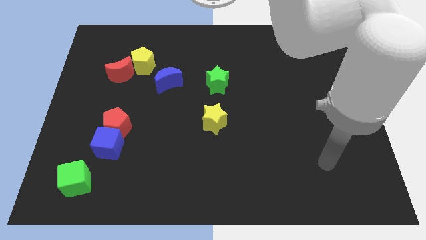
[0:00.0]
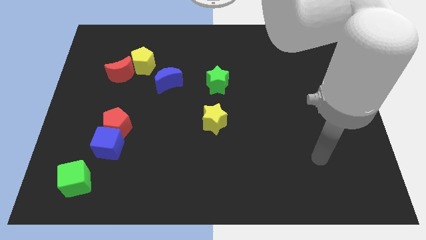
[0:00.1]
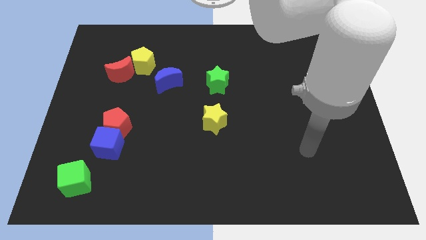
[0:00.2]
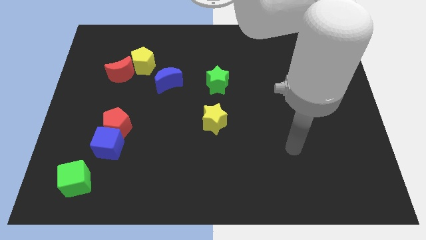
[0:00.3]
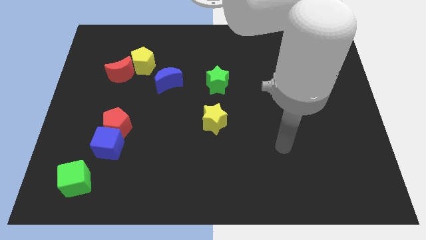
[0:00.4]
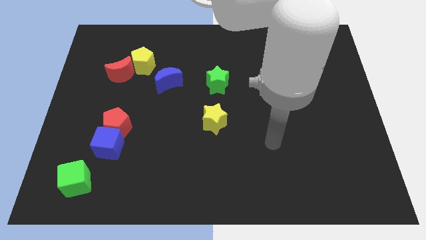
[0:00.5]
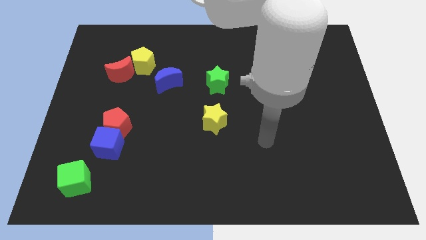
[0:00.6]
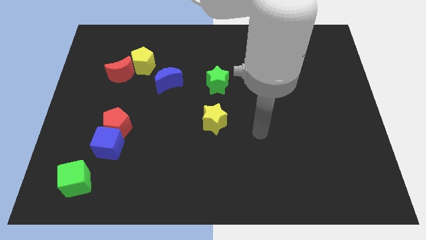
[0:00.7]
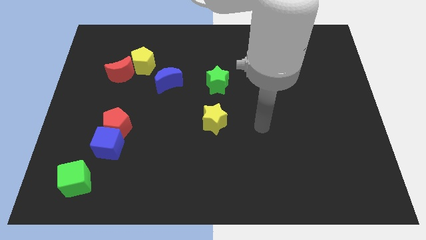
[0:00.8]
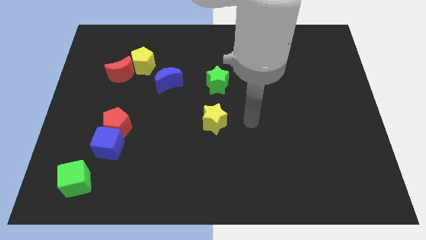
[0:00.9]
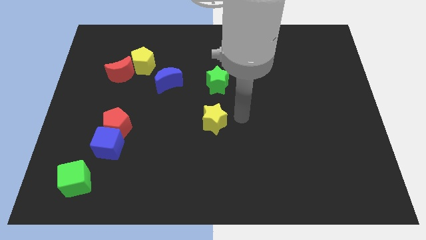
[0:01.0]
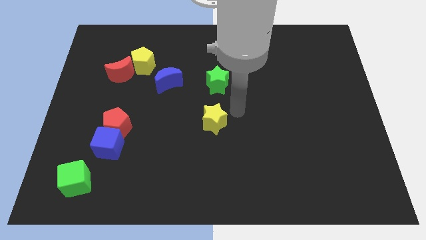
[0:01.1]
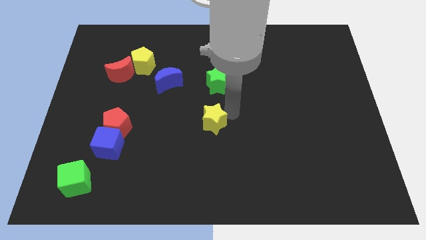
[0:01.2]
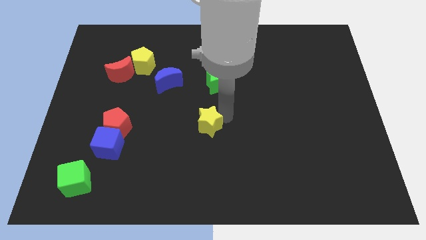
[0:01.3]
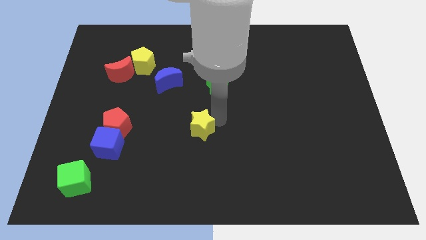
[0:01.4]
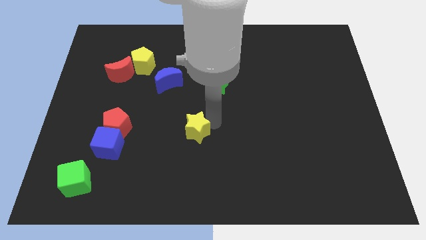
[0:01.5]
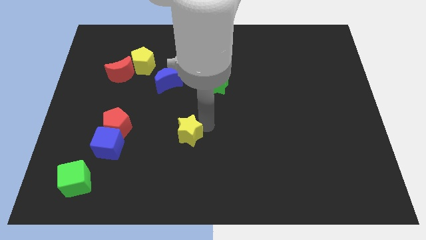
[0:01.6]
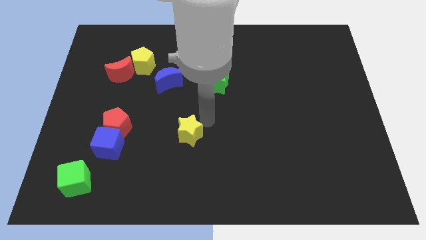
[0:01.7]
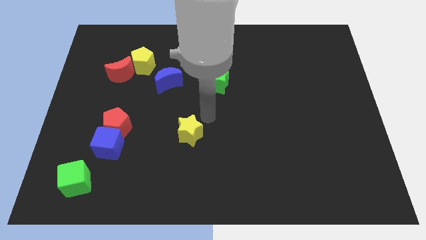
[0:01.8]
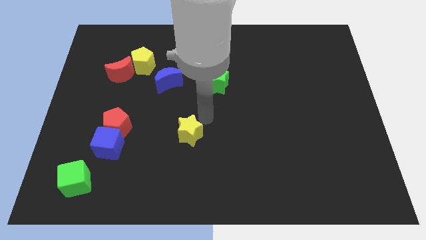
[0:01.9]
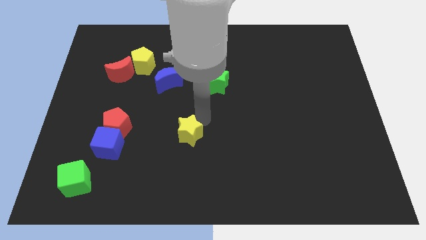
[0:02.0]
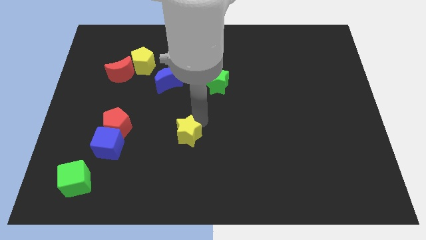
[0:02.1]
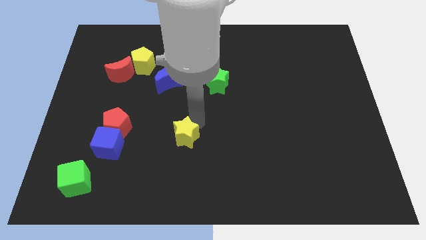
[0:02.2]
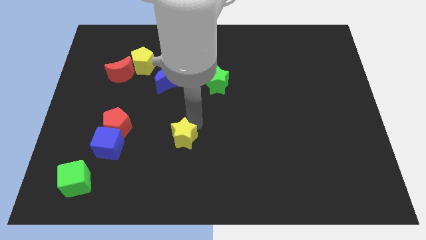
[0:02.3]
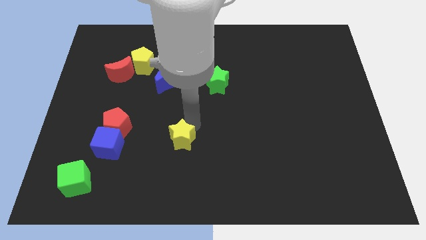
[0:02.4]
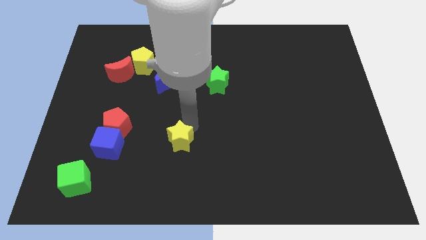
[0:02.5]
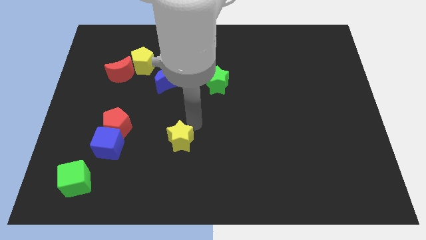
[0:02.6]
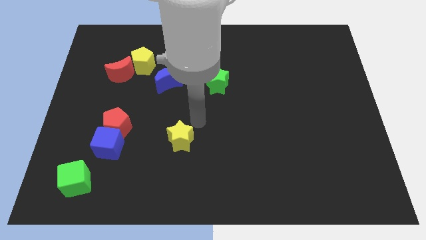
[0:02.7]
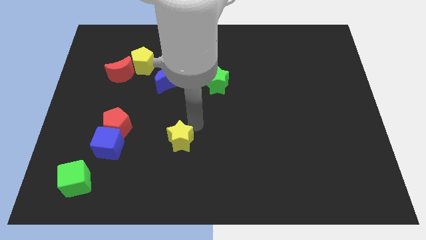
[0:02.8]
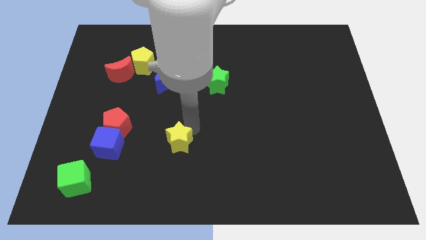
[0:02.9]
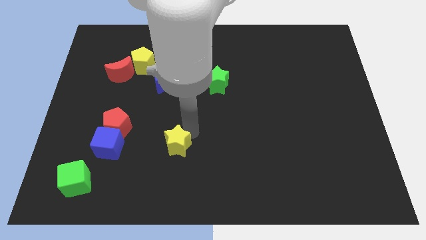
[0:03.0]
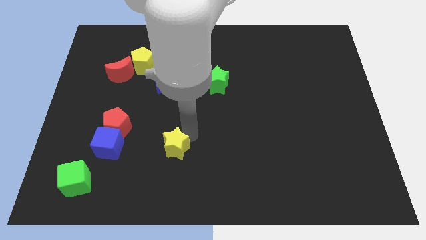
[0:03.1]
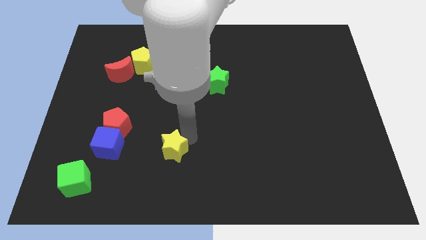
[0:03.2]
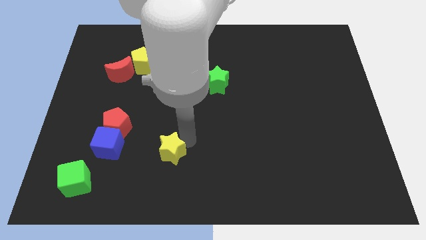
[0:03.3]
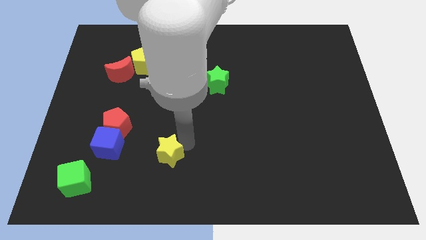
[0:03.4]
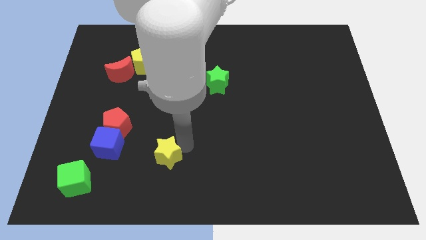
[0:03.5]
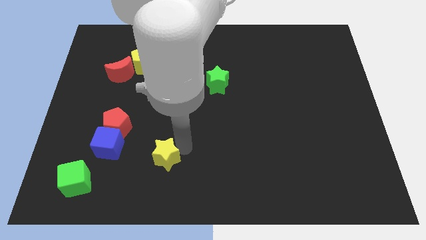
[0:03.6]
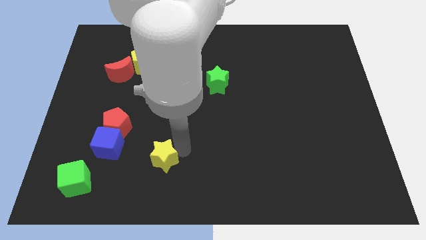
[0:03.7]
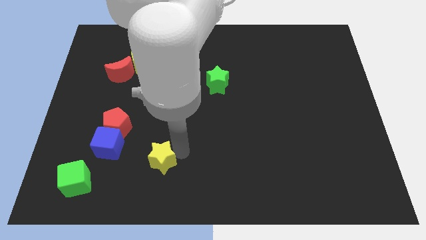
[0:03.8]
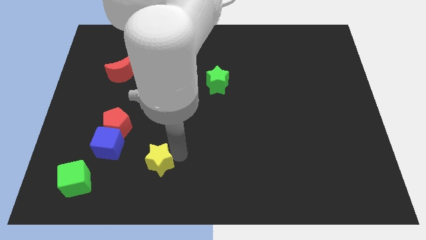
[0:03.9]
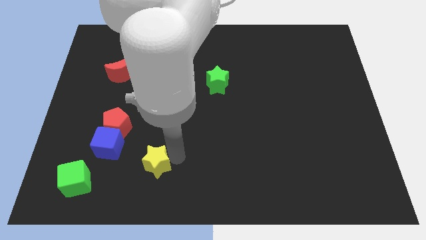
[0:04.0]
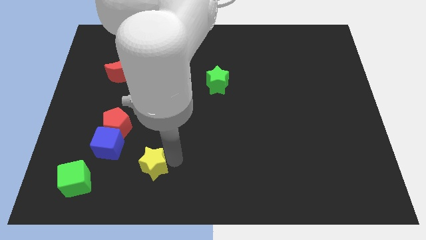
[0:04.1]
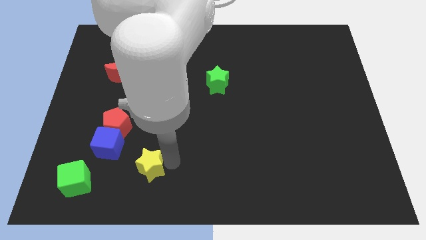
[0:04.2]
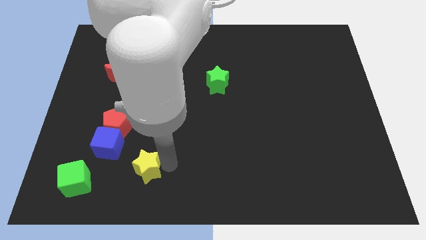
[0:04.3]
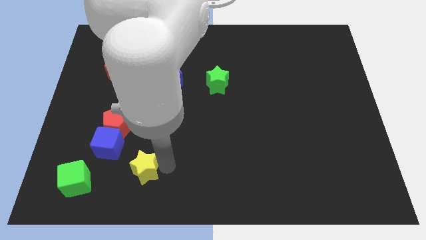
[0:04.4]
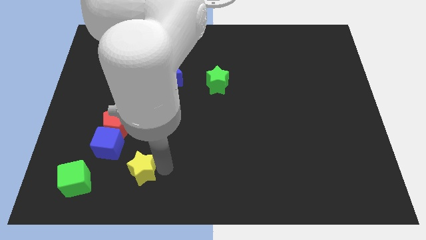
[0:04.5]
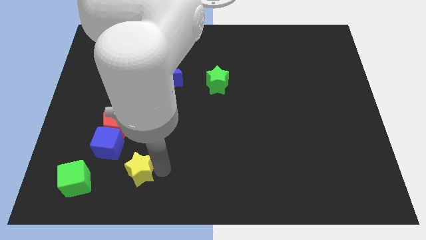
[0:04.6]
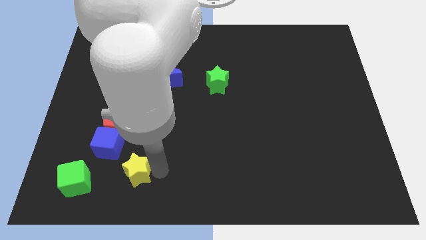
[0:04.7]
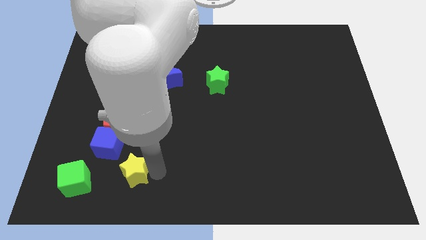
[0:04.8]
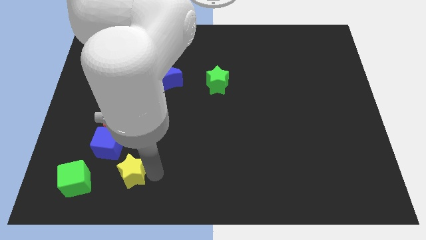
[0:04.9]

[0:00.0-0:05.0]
push the yellow star below the red pentagon

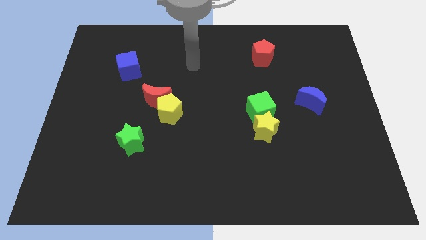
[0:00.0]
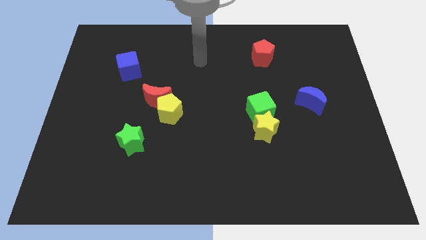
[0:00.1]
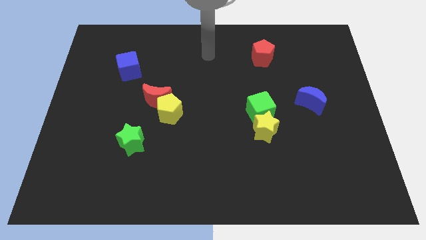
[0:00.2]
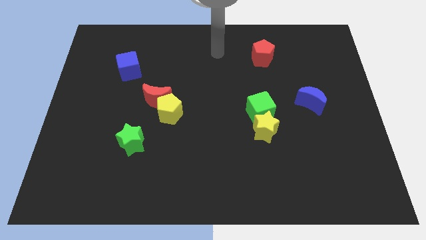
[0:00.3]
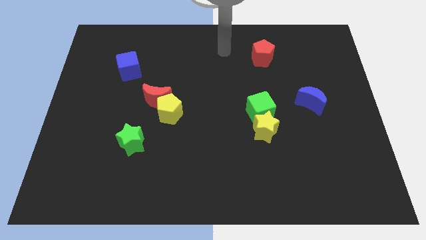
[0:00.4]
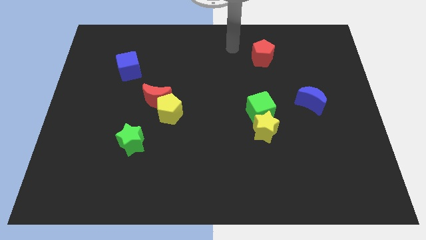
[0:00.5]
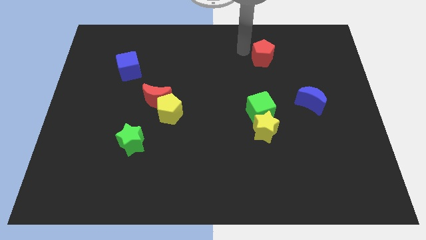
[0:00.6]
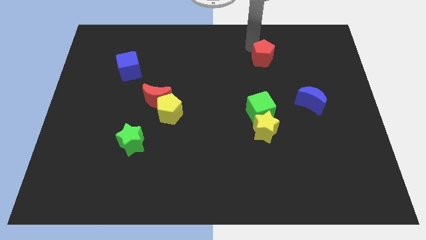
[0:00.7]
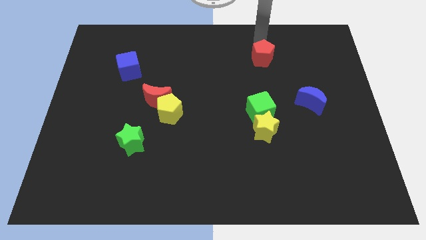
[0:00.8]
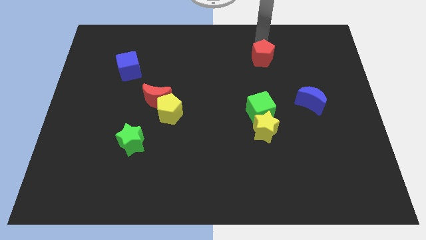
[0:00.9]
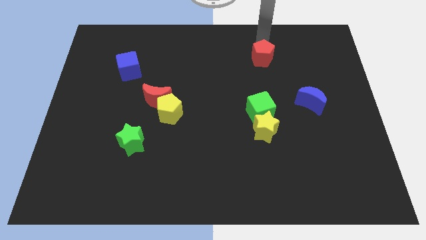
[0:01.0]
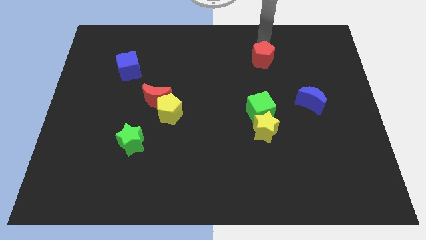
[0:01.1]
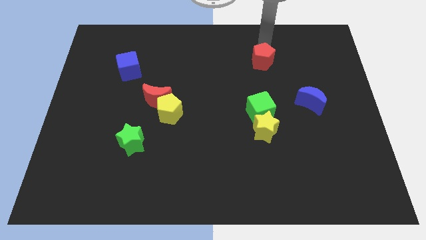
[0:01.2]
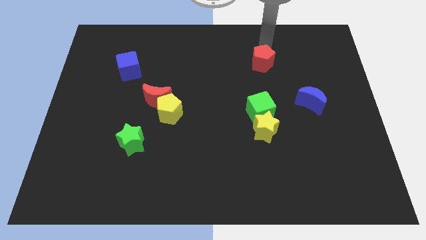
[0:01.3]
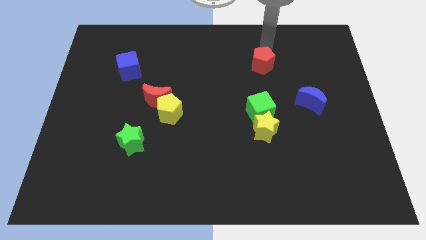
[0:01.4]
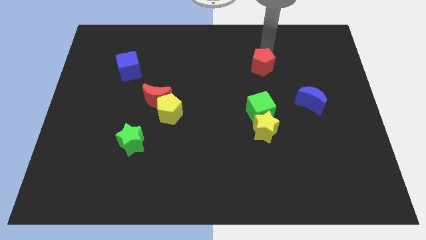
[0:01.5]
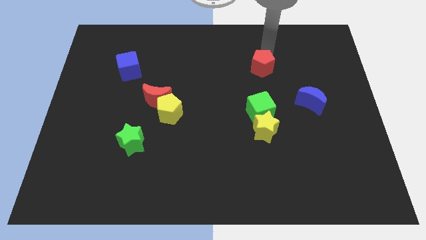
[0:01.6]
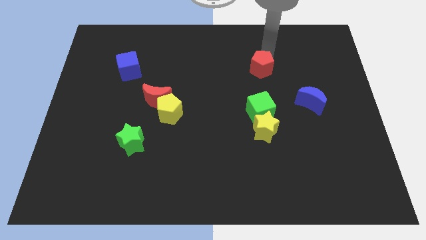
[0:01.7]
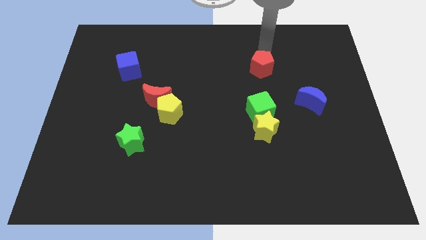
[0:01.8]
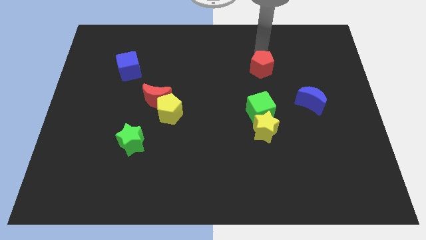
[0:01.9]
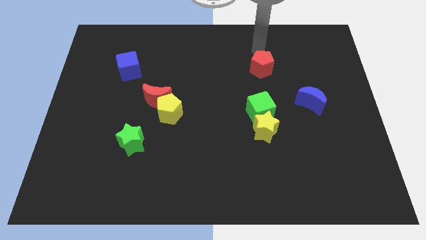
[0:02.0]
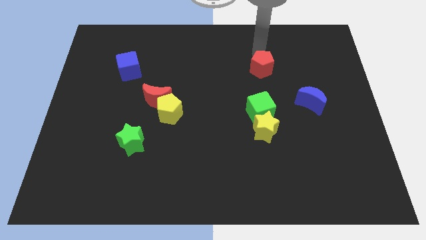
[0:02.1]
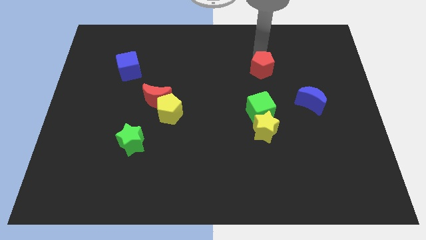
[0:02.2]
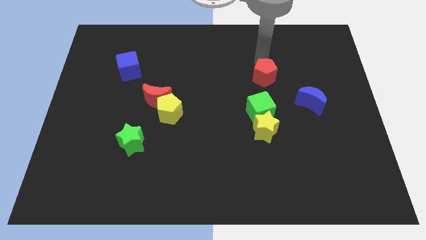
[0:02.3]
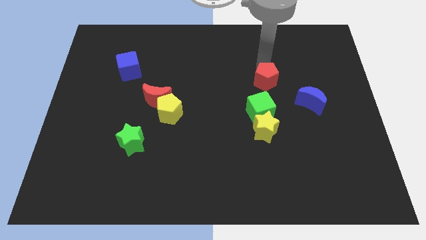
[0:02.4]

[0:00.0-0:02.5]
move the red pentagon to the top side of the yellow star
